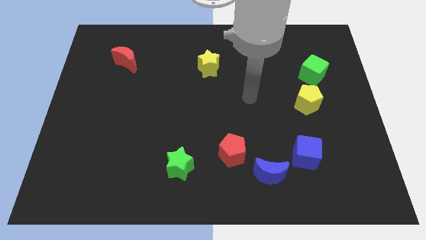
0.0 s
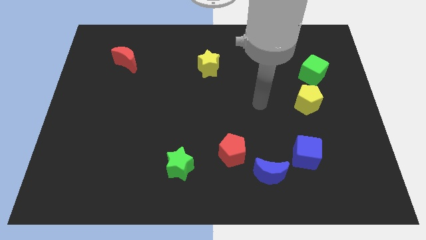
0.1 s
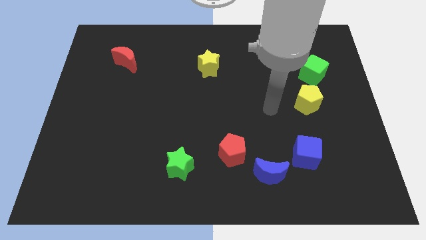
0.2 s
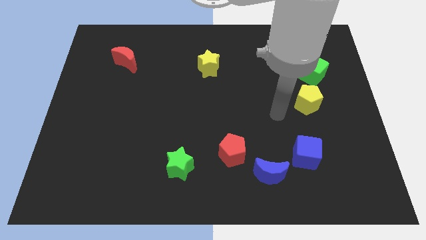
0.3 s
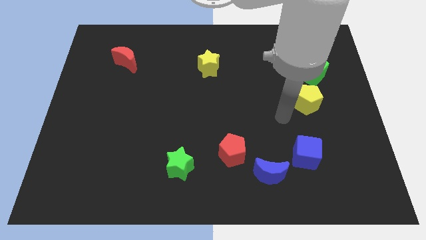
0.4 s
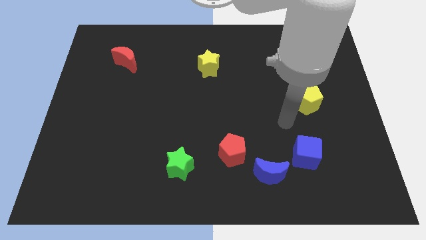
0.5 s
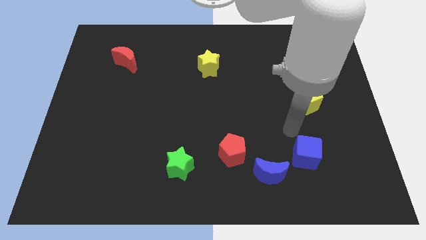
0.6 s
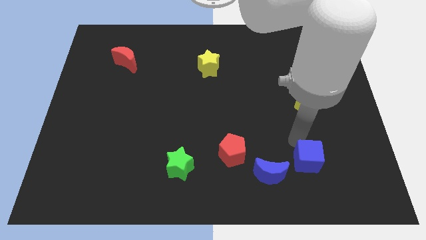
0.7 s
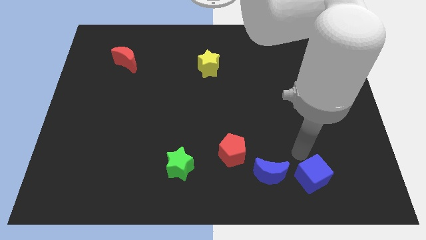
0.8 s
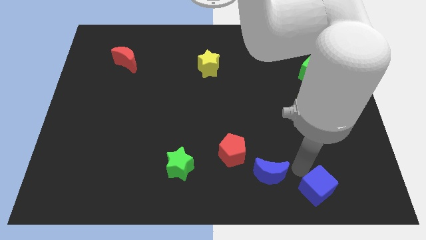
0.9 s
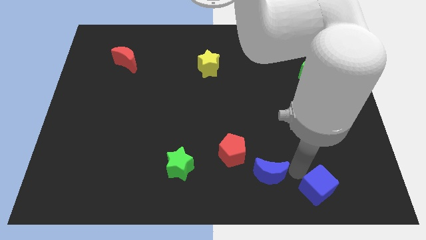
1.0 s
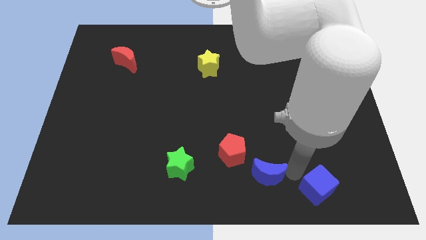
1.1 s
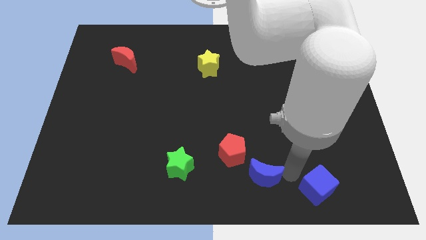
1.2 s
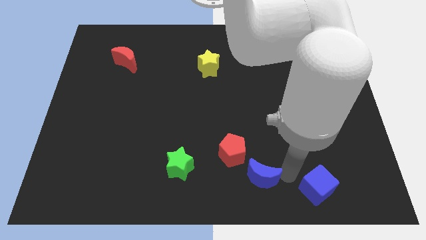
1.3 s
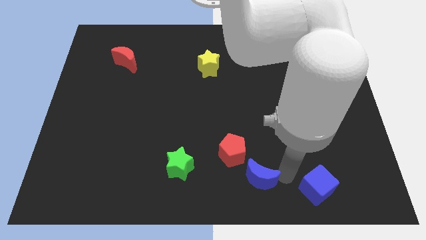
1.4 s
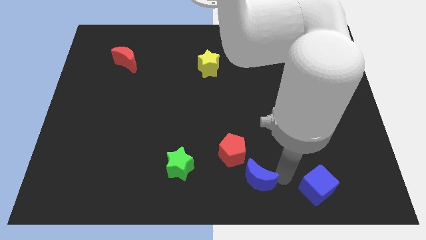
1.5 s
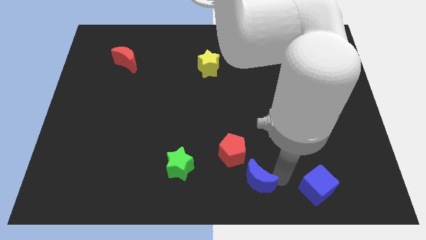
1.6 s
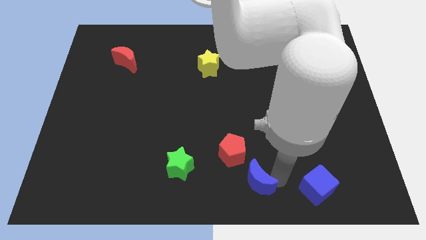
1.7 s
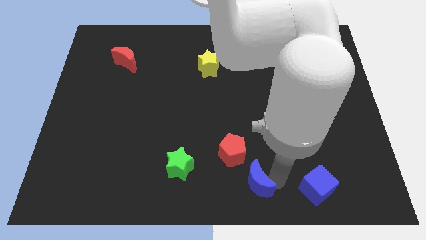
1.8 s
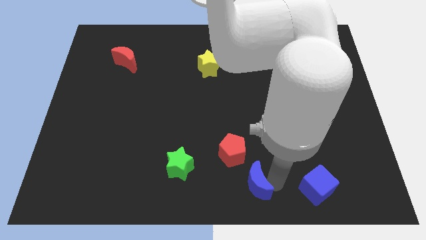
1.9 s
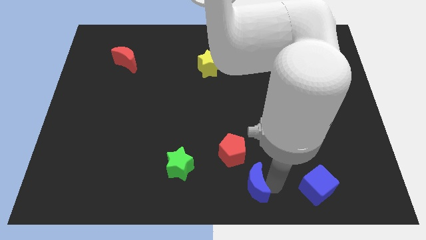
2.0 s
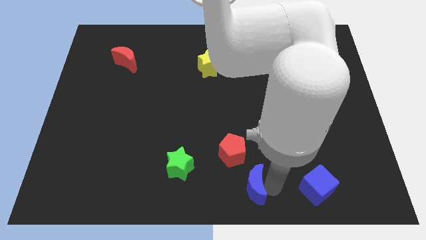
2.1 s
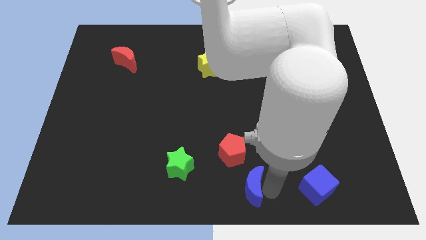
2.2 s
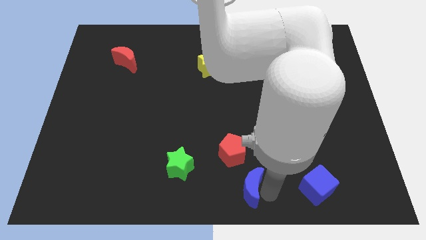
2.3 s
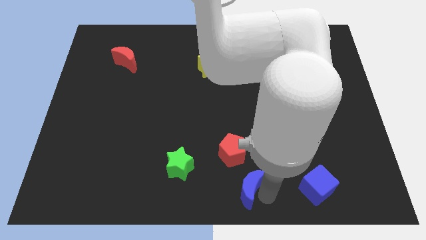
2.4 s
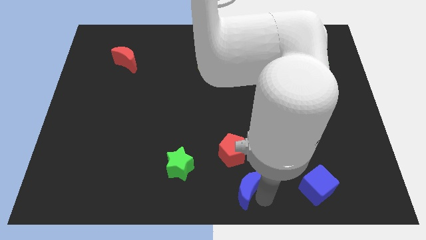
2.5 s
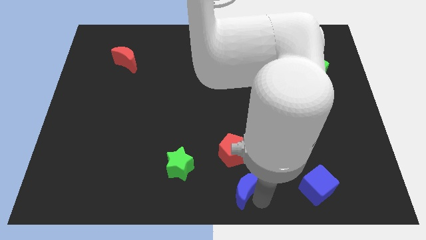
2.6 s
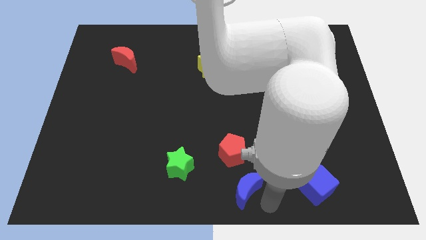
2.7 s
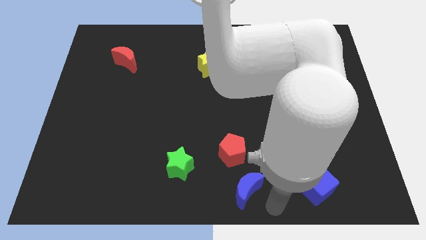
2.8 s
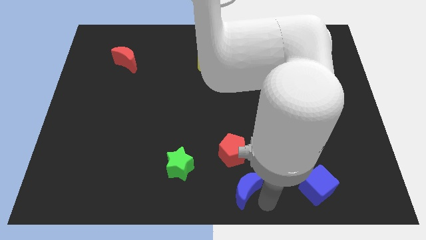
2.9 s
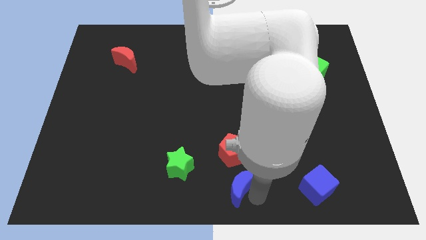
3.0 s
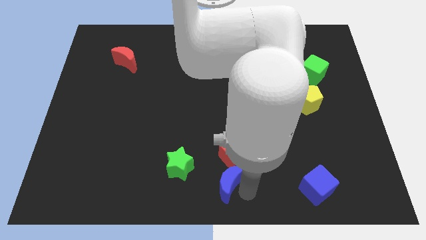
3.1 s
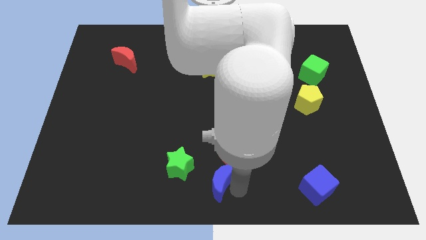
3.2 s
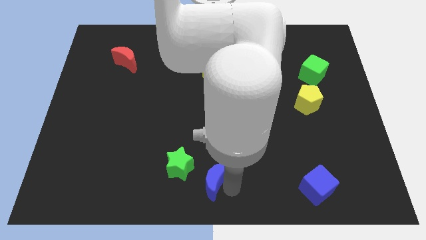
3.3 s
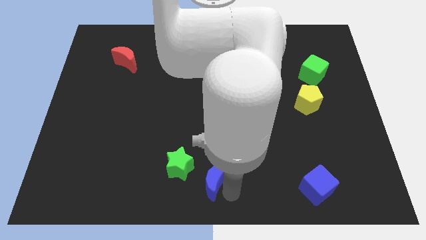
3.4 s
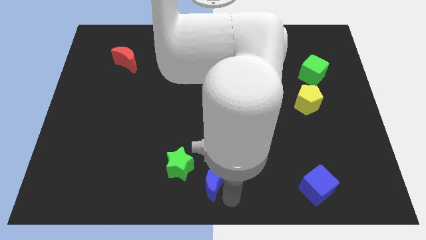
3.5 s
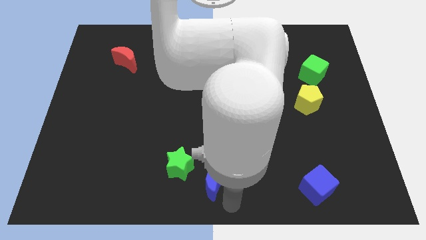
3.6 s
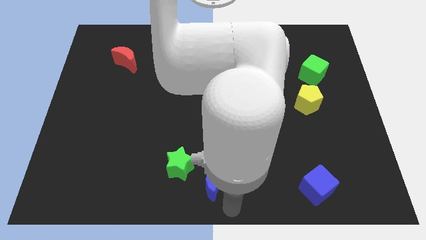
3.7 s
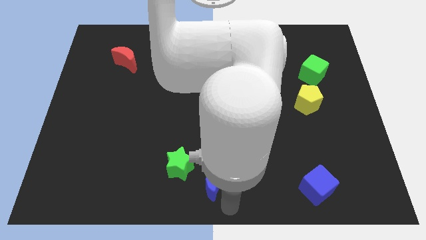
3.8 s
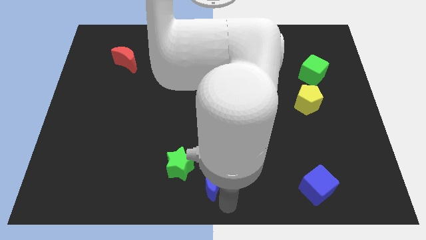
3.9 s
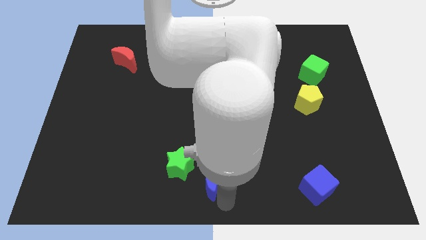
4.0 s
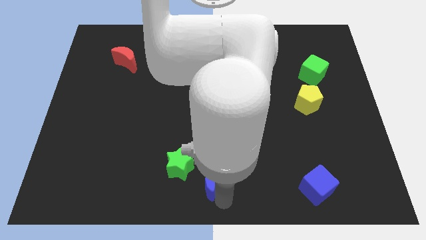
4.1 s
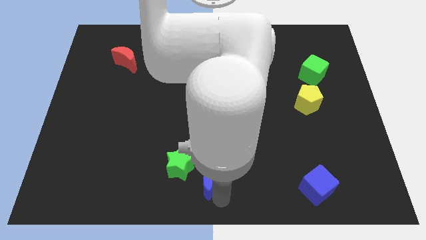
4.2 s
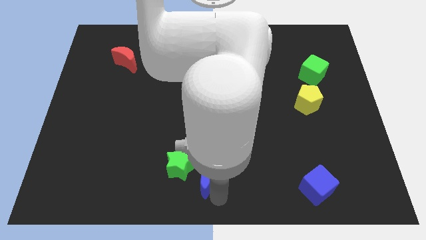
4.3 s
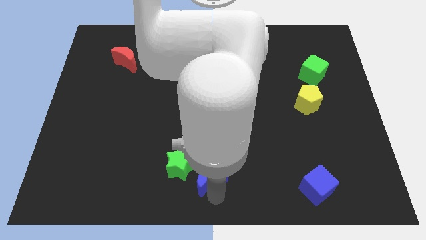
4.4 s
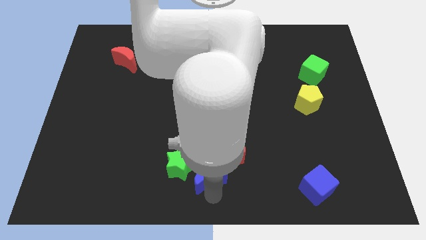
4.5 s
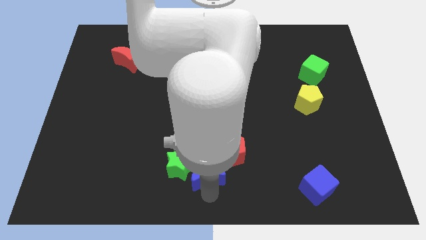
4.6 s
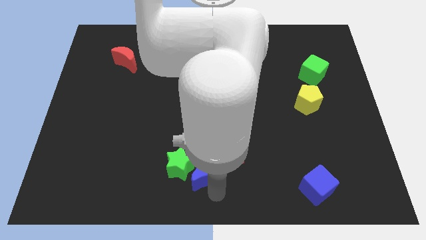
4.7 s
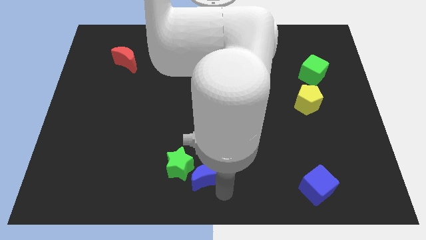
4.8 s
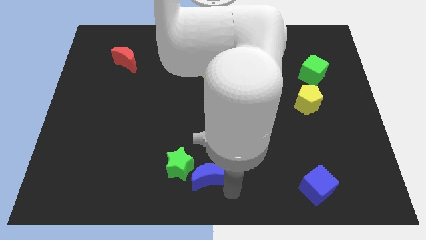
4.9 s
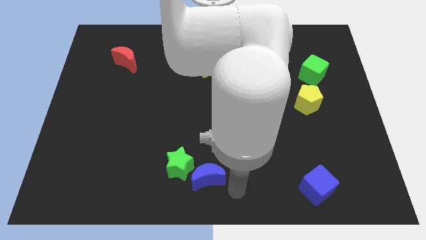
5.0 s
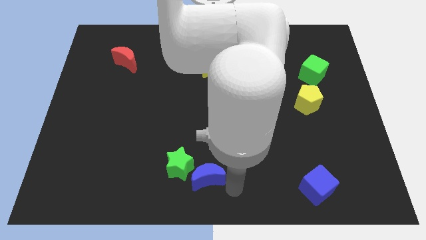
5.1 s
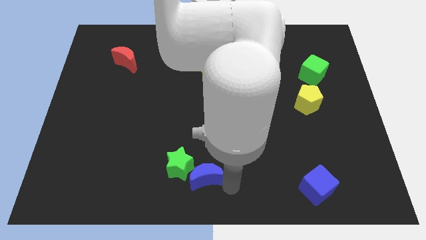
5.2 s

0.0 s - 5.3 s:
put the blue moon towards the green star

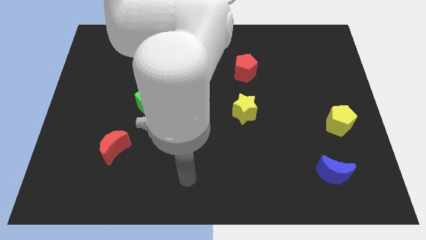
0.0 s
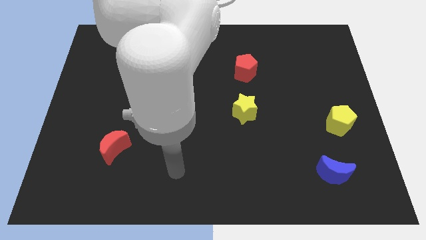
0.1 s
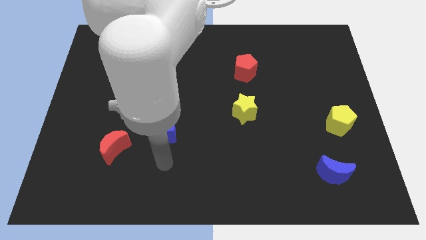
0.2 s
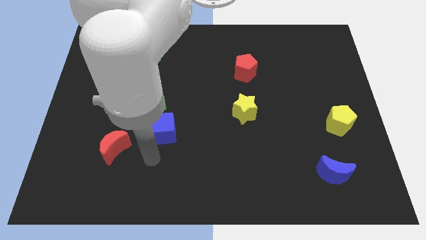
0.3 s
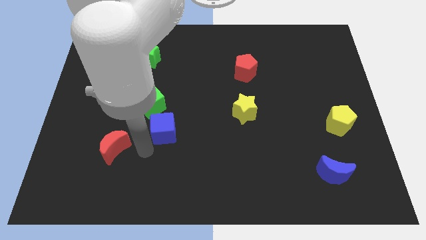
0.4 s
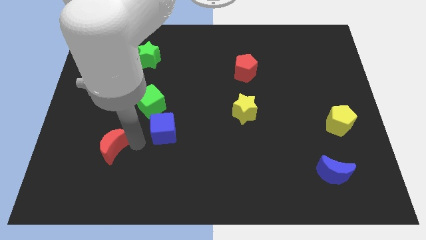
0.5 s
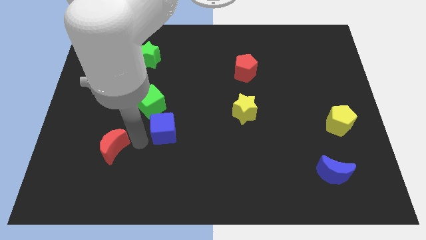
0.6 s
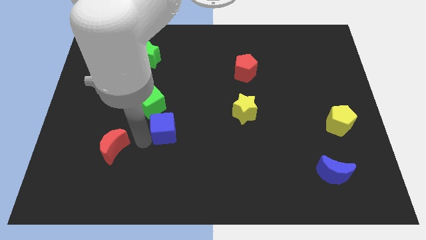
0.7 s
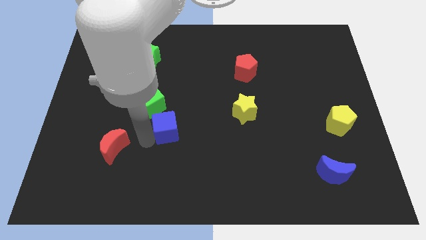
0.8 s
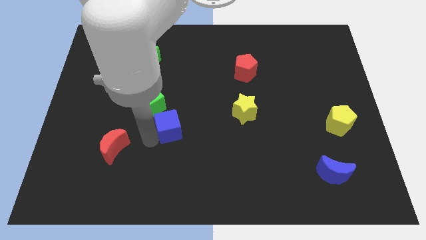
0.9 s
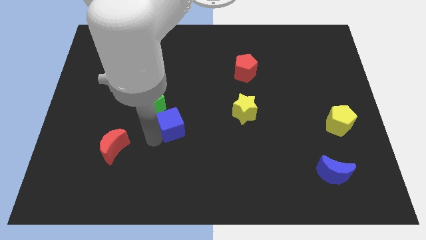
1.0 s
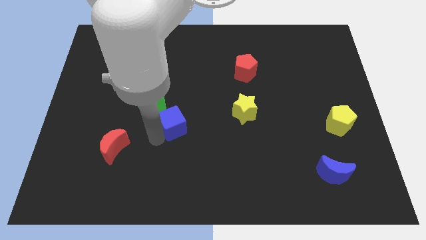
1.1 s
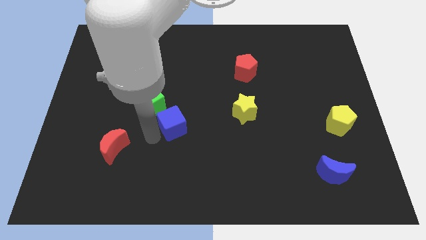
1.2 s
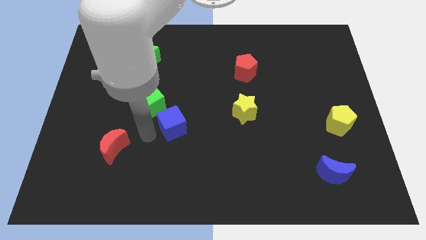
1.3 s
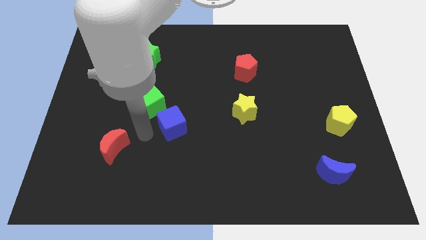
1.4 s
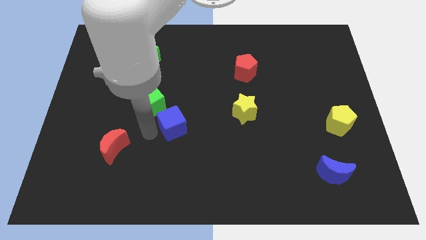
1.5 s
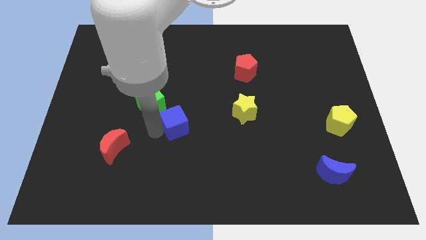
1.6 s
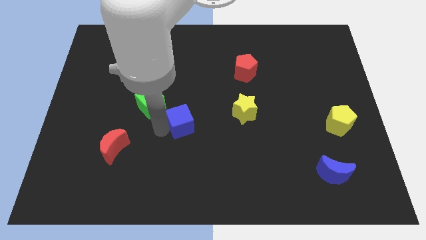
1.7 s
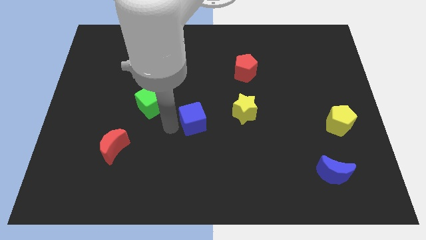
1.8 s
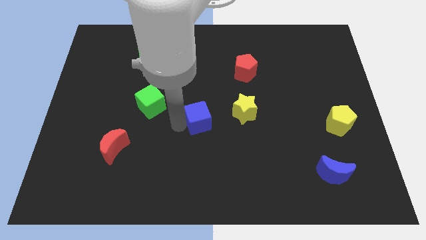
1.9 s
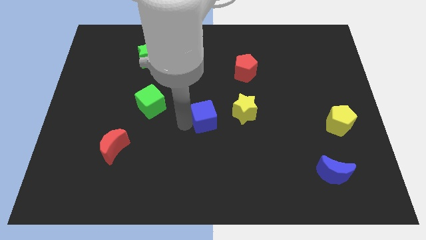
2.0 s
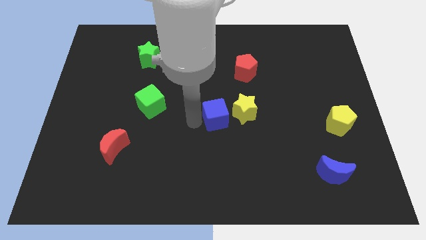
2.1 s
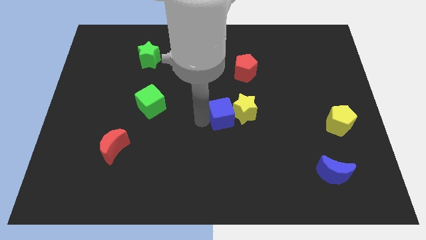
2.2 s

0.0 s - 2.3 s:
put the blue cube close to the yellow star

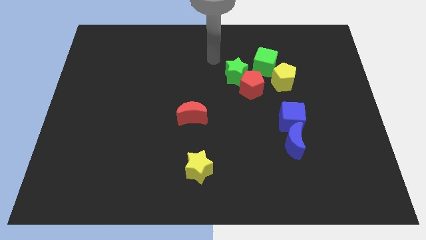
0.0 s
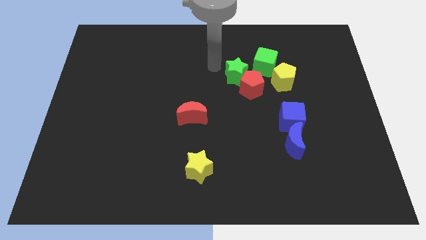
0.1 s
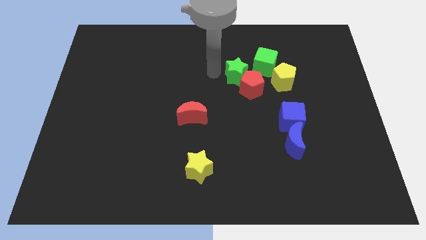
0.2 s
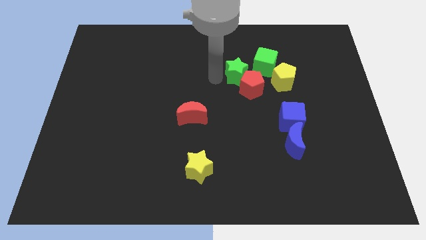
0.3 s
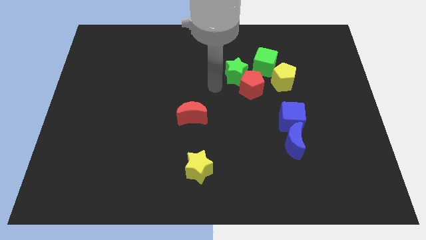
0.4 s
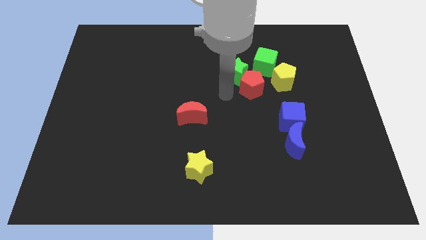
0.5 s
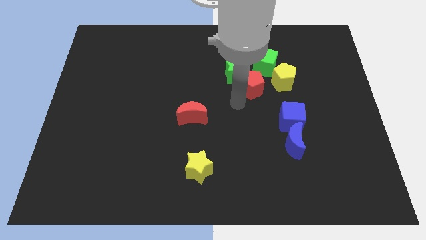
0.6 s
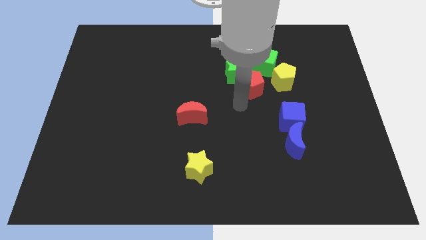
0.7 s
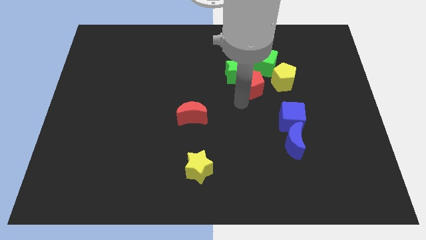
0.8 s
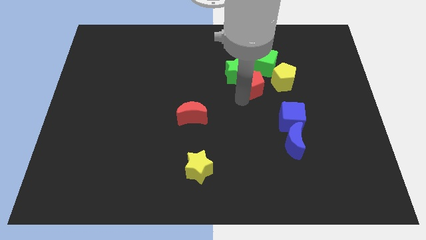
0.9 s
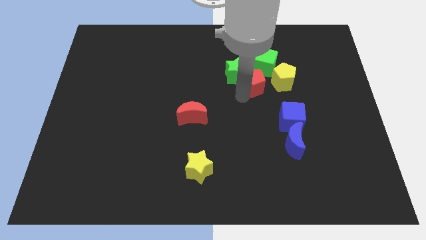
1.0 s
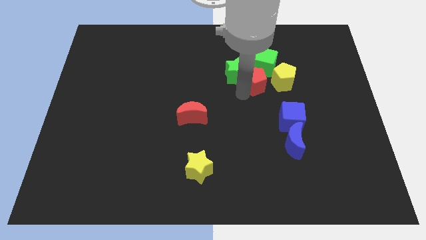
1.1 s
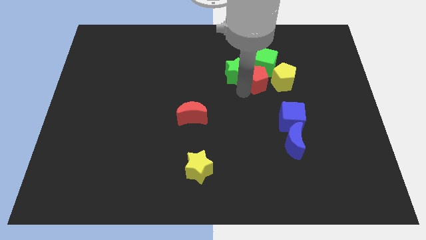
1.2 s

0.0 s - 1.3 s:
slide the red pentagon to the green cube
